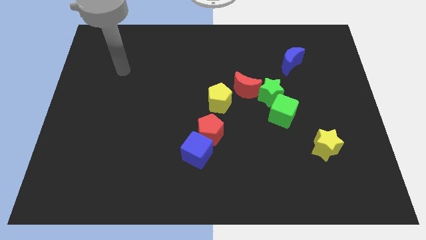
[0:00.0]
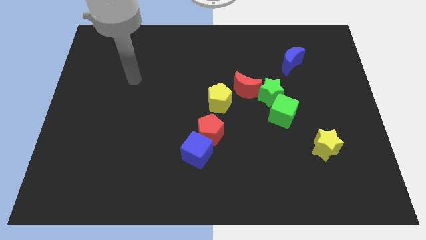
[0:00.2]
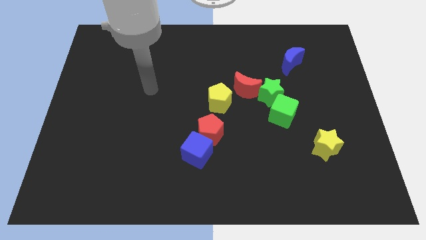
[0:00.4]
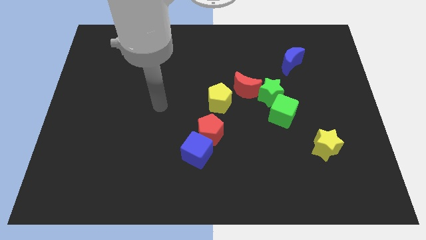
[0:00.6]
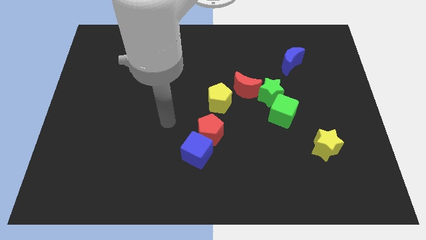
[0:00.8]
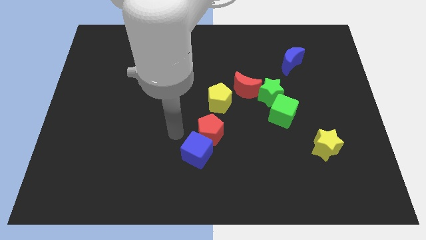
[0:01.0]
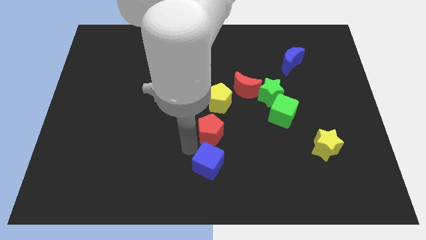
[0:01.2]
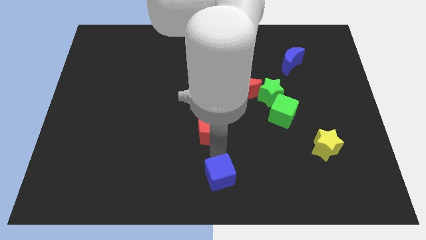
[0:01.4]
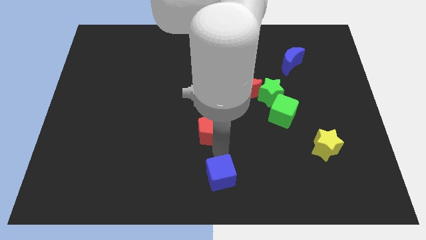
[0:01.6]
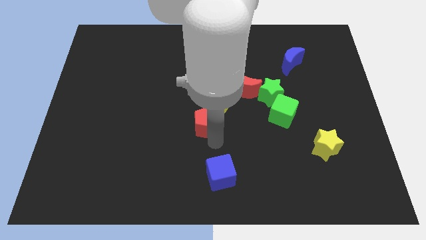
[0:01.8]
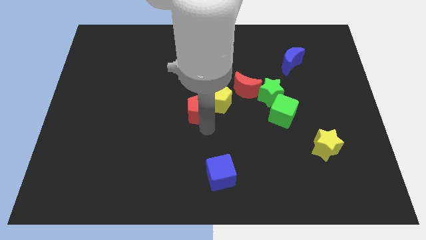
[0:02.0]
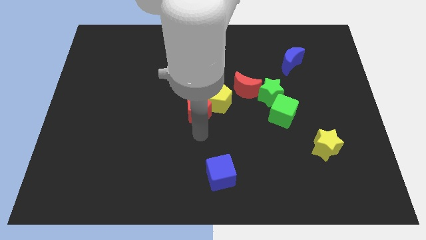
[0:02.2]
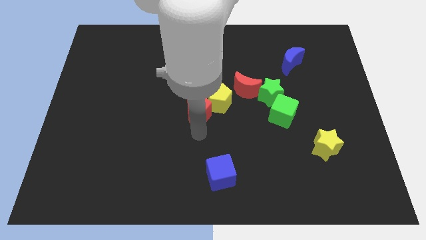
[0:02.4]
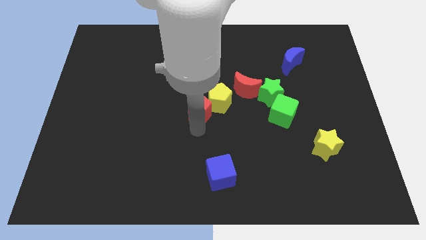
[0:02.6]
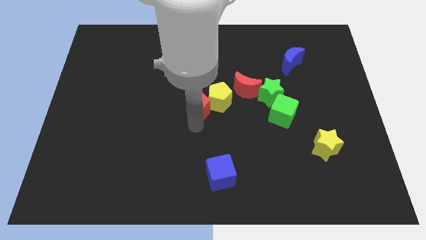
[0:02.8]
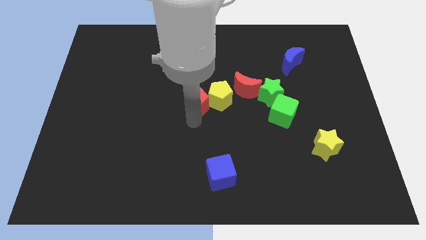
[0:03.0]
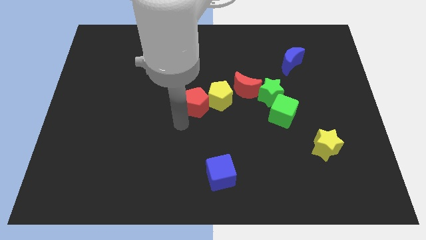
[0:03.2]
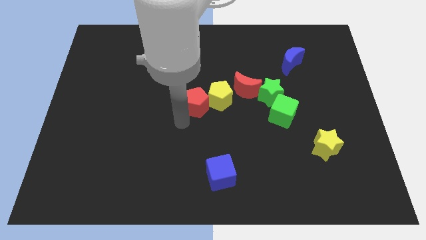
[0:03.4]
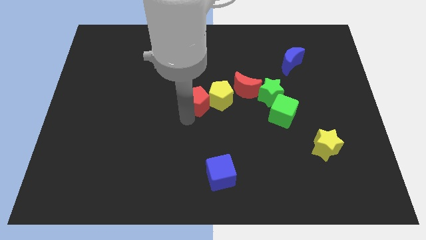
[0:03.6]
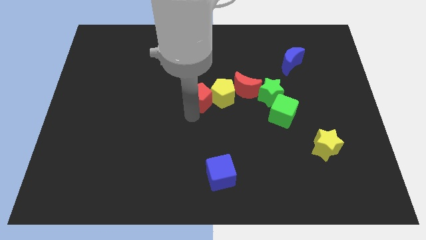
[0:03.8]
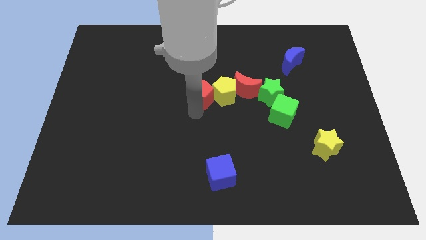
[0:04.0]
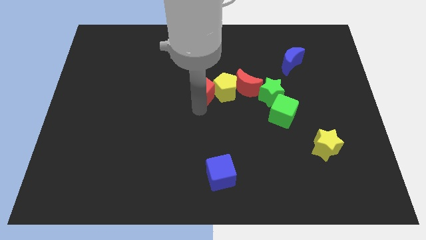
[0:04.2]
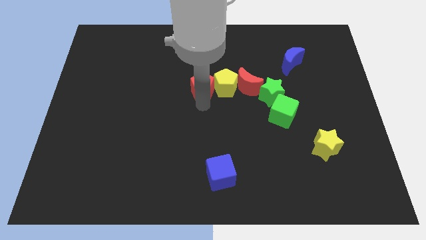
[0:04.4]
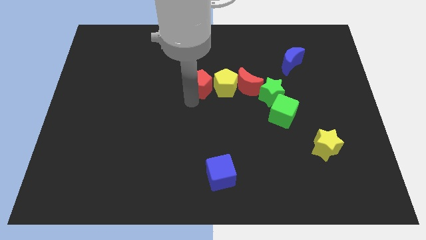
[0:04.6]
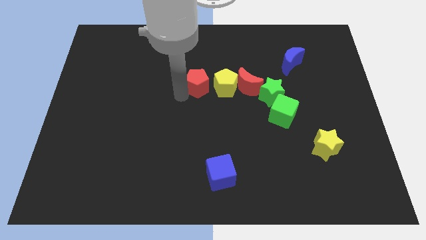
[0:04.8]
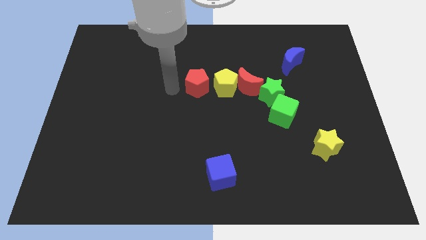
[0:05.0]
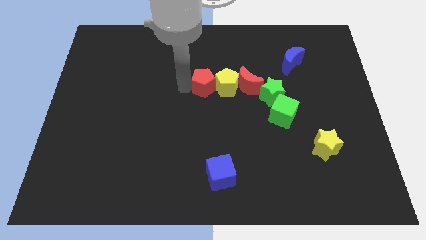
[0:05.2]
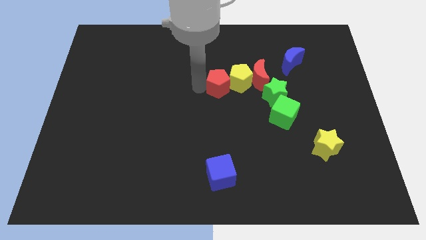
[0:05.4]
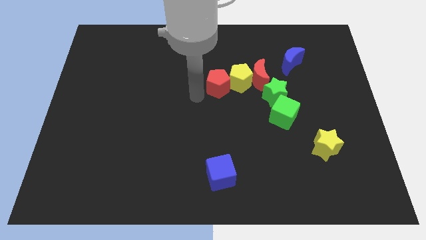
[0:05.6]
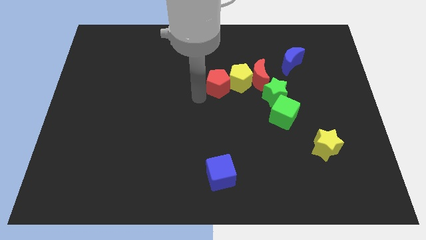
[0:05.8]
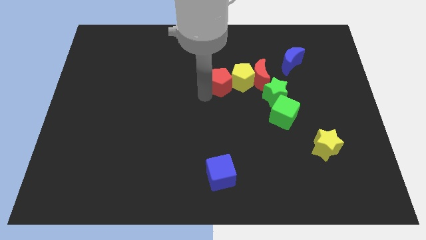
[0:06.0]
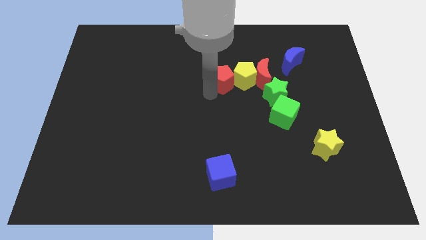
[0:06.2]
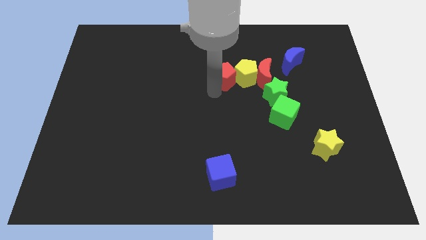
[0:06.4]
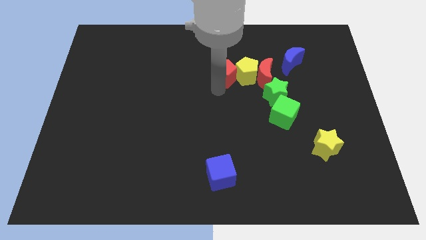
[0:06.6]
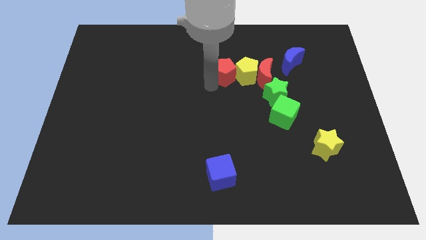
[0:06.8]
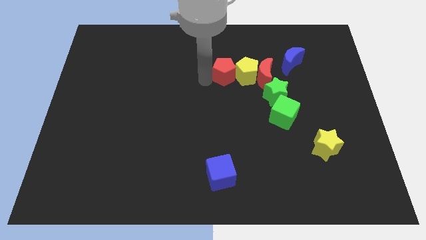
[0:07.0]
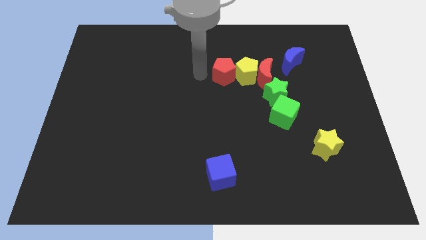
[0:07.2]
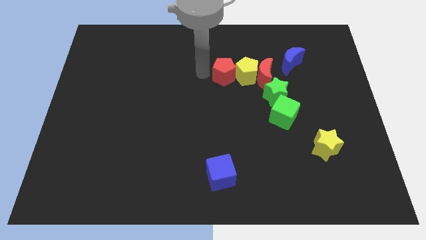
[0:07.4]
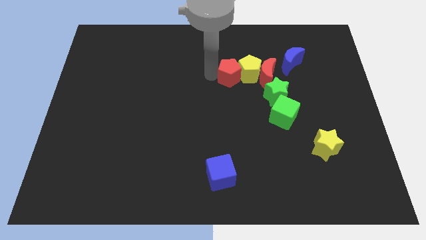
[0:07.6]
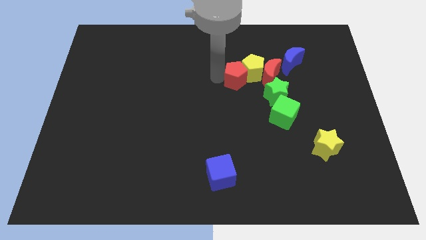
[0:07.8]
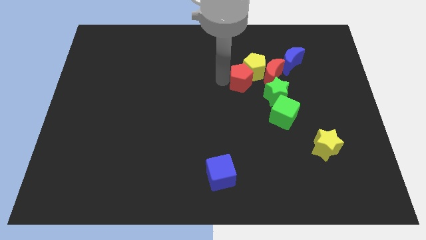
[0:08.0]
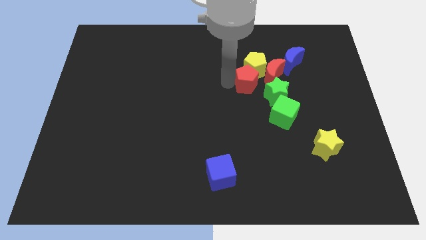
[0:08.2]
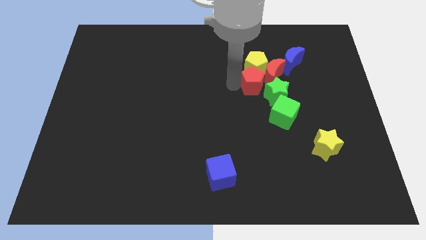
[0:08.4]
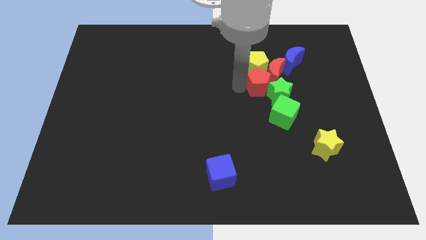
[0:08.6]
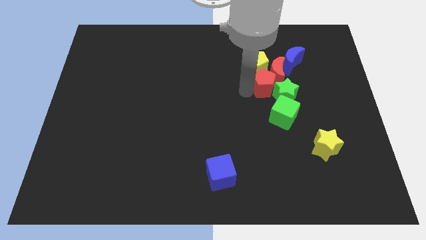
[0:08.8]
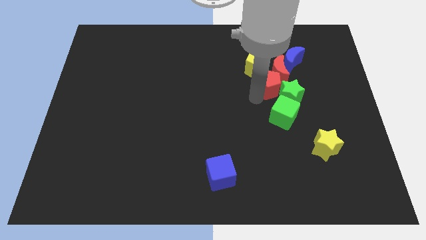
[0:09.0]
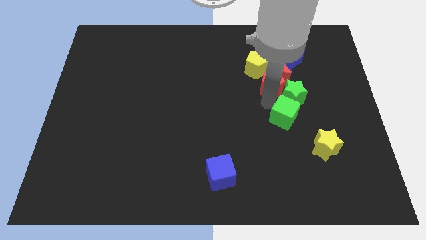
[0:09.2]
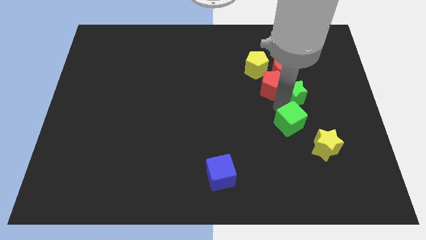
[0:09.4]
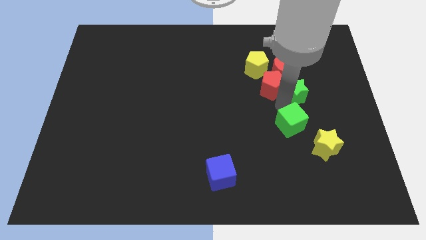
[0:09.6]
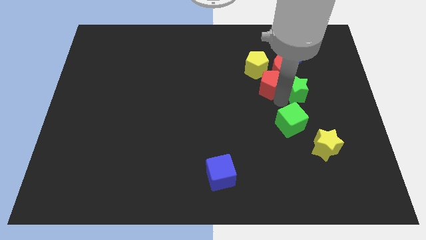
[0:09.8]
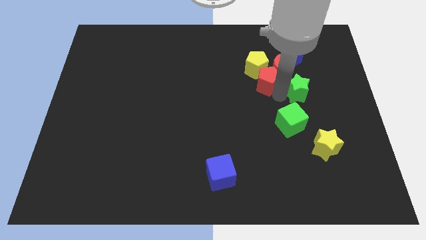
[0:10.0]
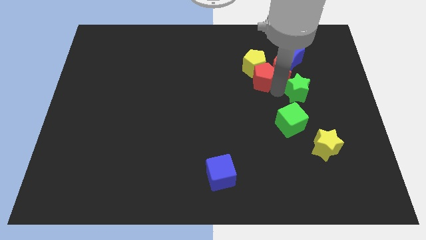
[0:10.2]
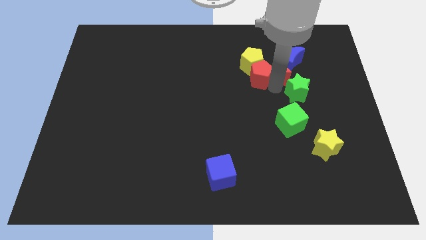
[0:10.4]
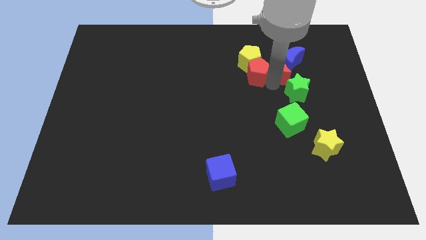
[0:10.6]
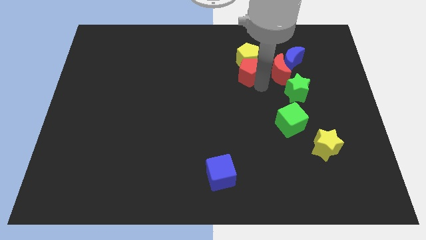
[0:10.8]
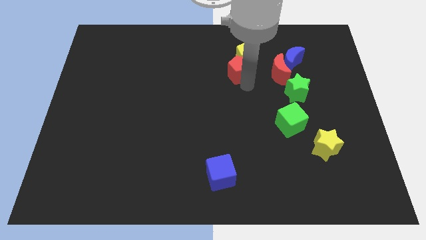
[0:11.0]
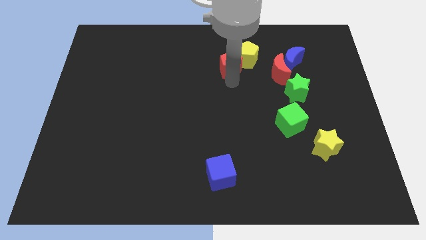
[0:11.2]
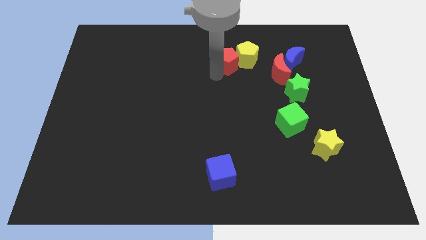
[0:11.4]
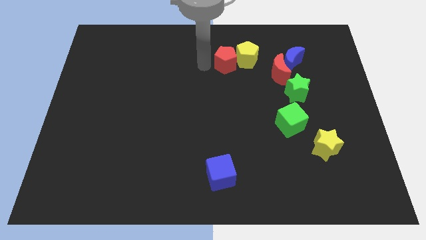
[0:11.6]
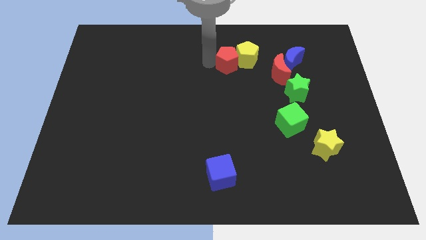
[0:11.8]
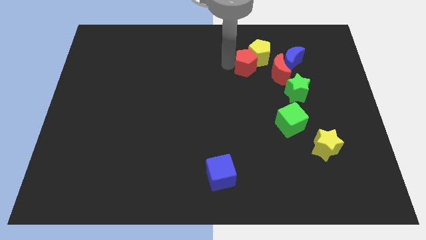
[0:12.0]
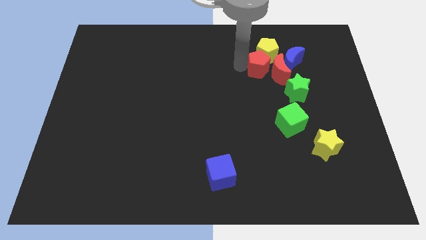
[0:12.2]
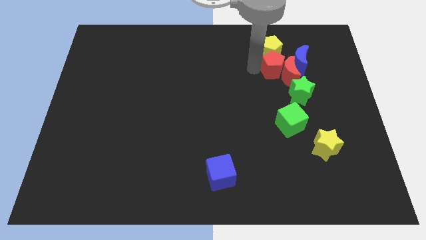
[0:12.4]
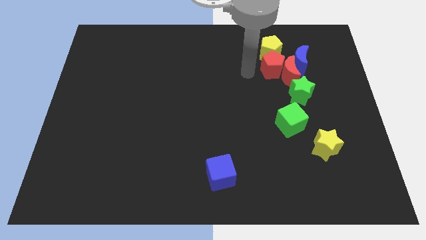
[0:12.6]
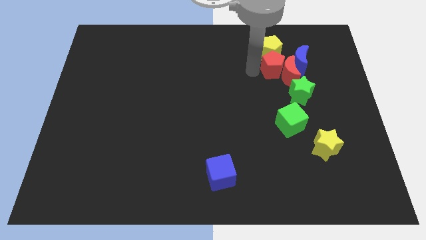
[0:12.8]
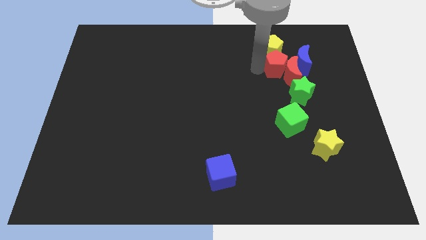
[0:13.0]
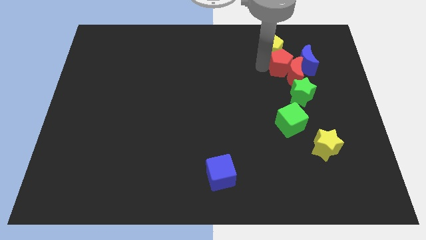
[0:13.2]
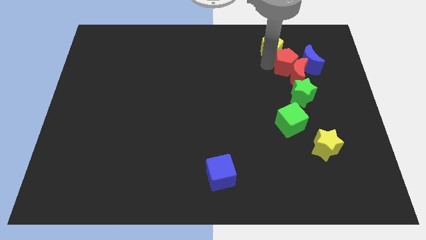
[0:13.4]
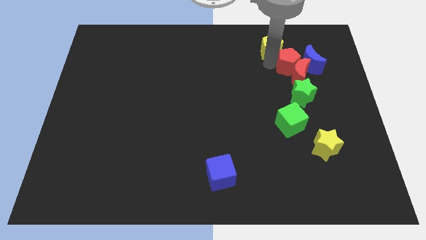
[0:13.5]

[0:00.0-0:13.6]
put the red pentagon next to the blue moon
